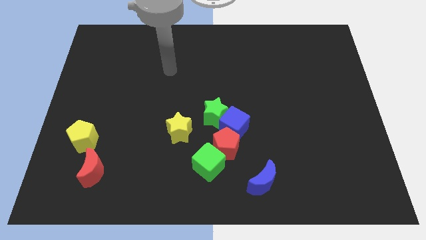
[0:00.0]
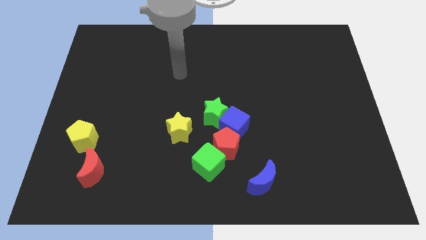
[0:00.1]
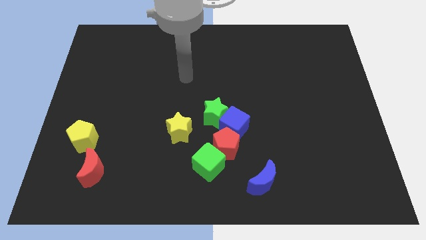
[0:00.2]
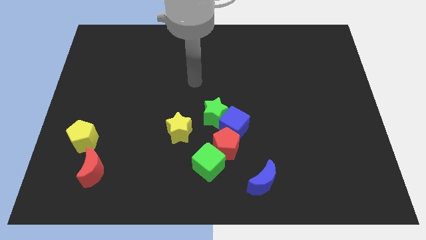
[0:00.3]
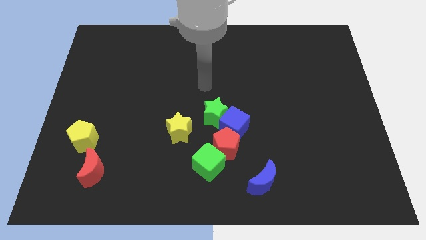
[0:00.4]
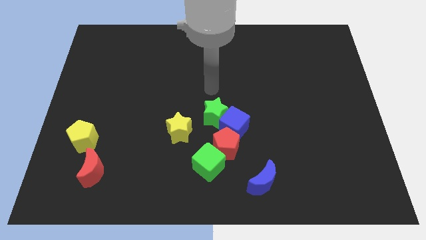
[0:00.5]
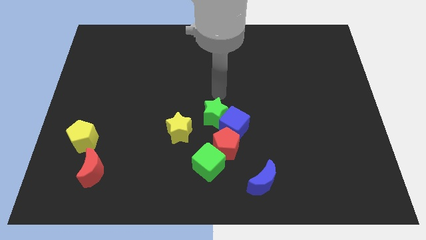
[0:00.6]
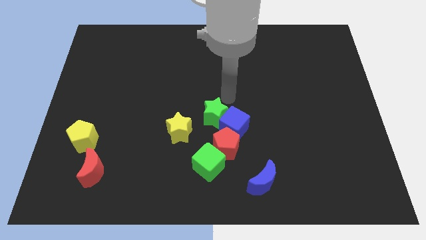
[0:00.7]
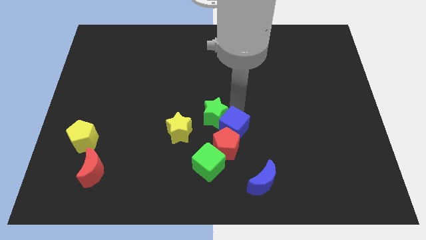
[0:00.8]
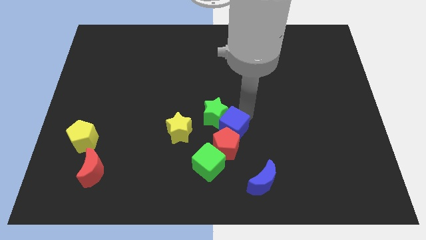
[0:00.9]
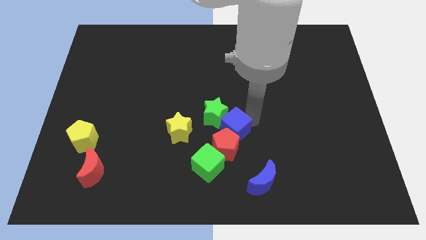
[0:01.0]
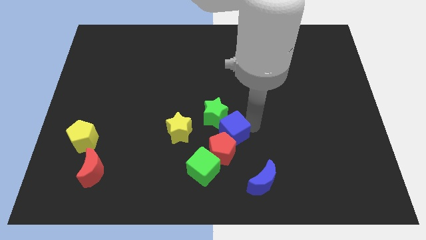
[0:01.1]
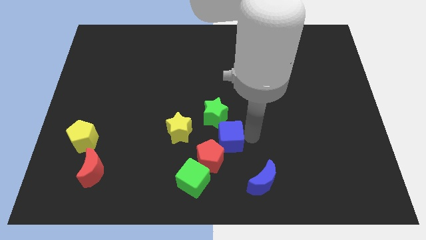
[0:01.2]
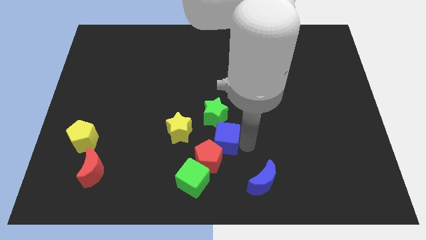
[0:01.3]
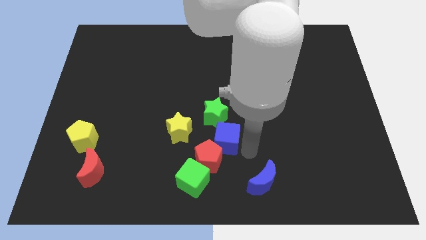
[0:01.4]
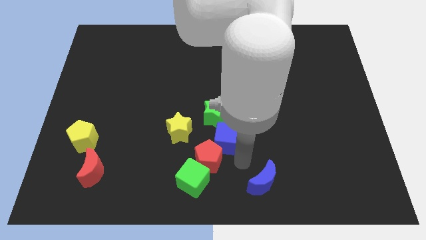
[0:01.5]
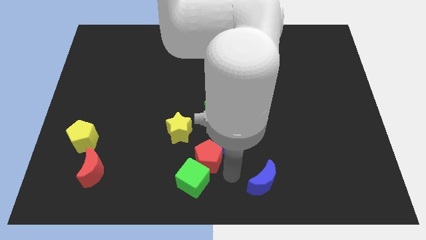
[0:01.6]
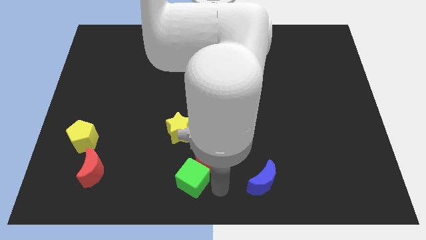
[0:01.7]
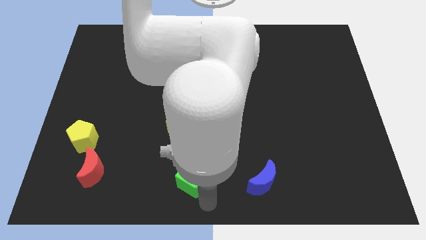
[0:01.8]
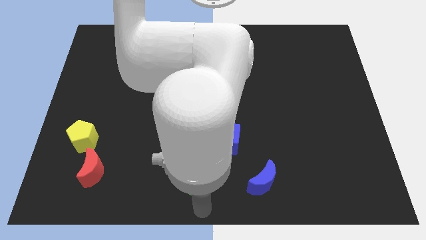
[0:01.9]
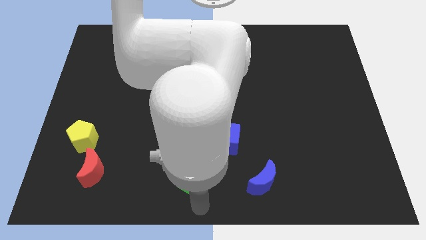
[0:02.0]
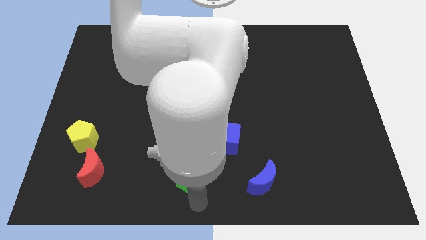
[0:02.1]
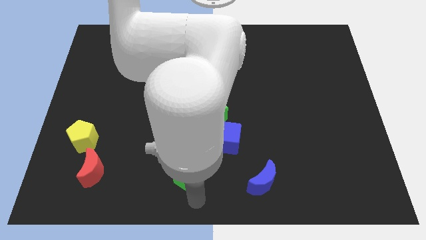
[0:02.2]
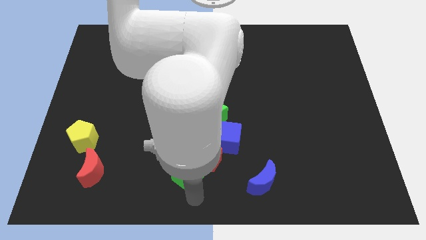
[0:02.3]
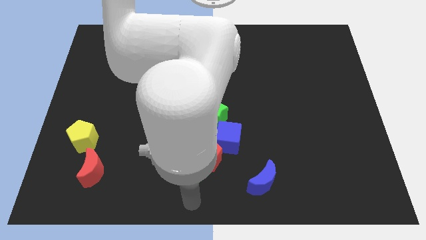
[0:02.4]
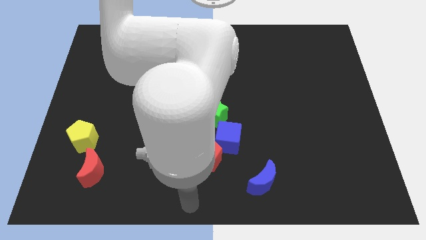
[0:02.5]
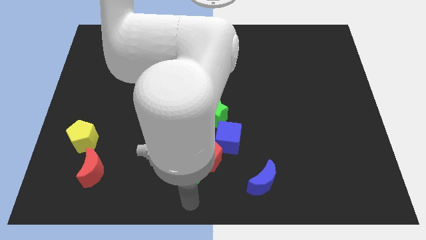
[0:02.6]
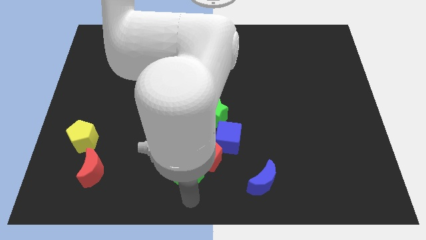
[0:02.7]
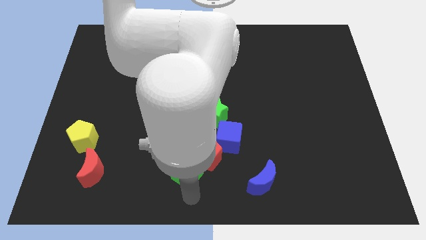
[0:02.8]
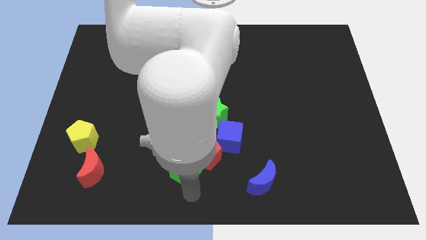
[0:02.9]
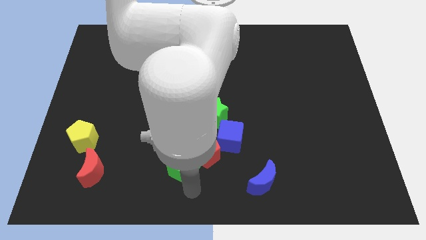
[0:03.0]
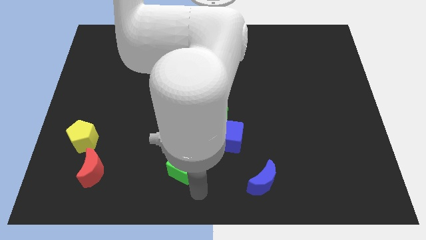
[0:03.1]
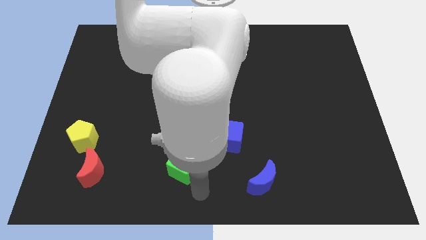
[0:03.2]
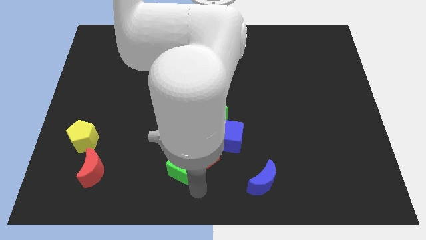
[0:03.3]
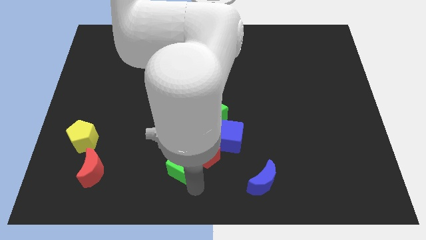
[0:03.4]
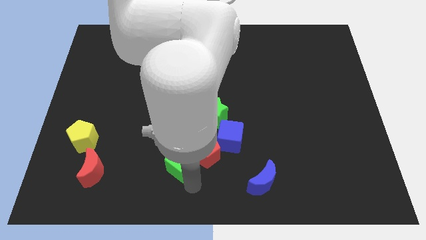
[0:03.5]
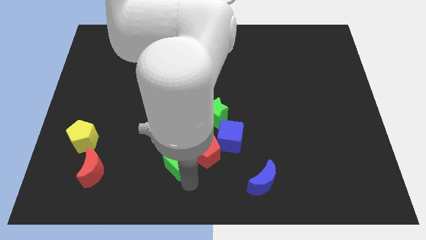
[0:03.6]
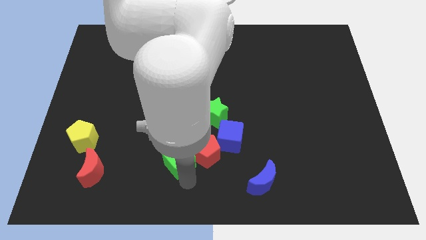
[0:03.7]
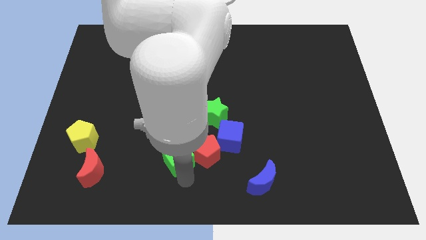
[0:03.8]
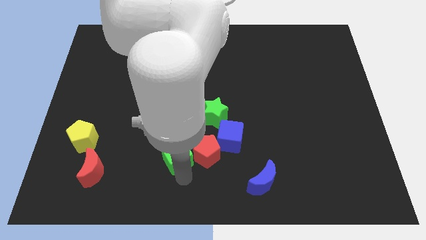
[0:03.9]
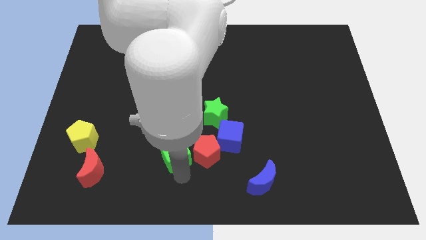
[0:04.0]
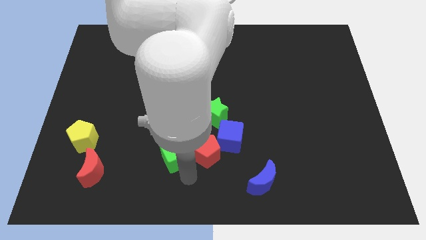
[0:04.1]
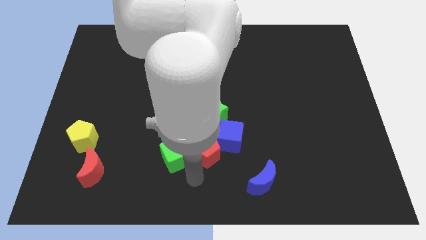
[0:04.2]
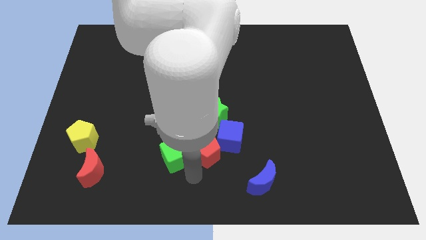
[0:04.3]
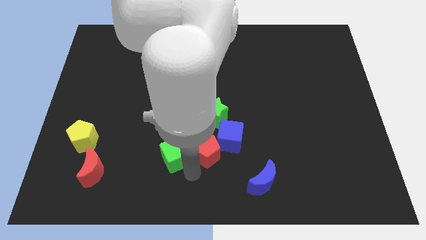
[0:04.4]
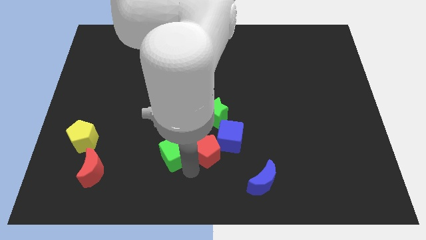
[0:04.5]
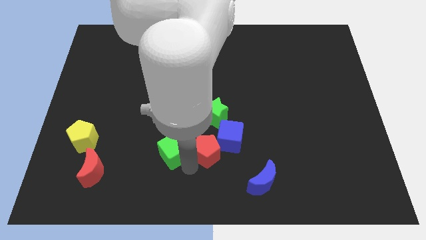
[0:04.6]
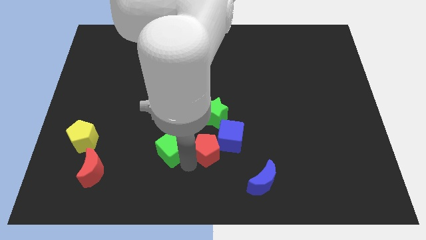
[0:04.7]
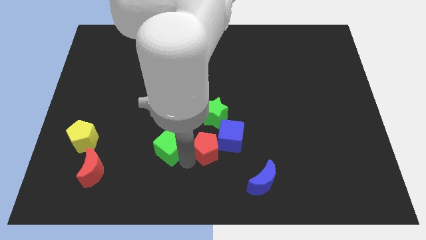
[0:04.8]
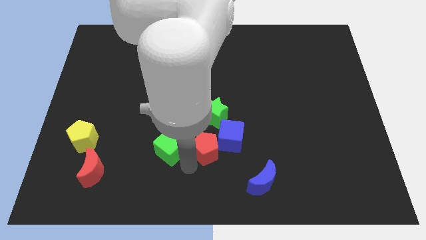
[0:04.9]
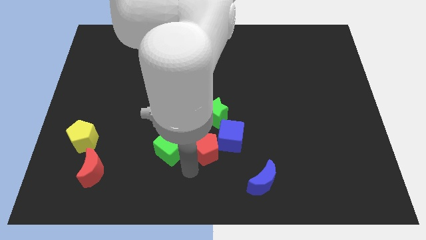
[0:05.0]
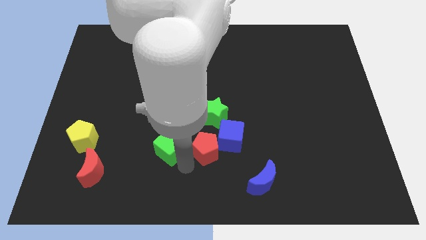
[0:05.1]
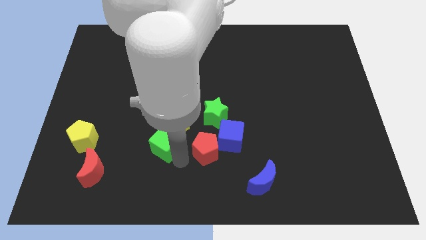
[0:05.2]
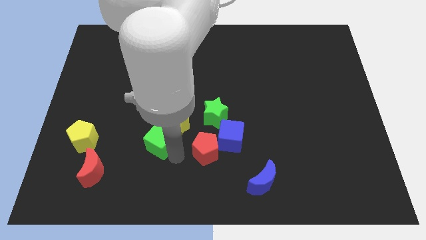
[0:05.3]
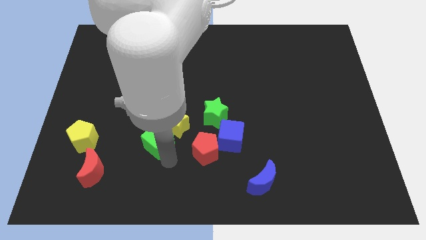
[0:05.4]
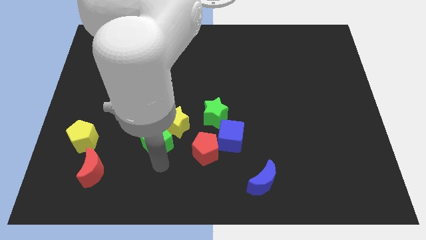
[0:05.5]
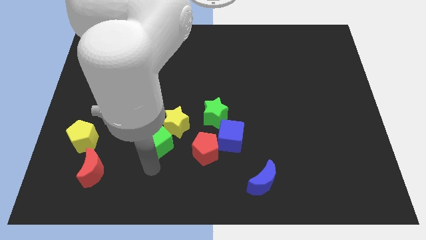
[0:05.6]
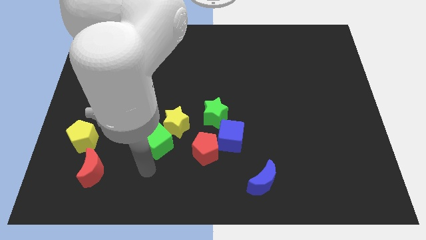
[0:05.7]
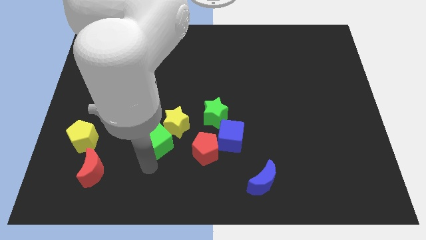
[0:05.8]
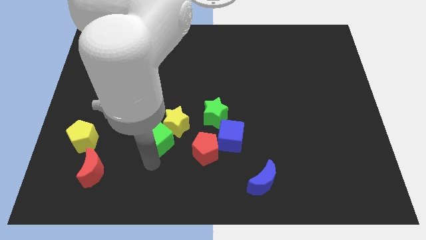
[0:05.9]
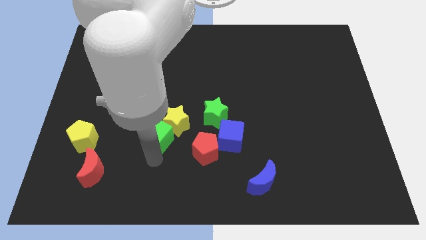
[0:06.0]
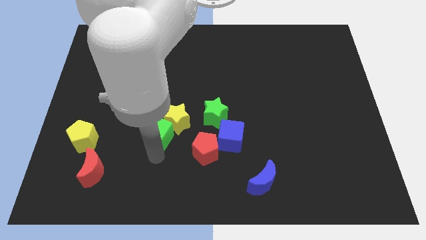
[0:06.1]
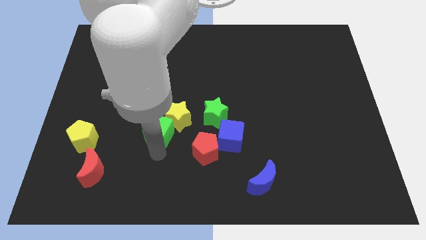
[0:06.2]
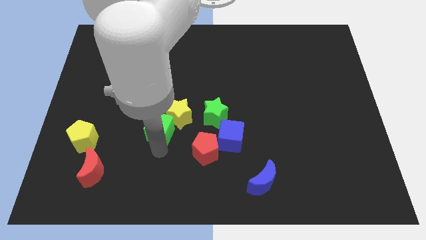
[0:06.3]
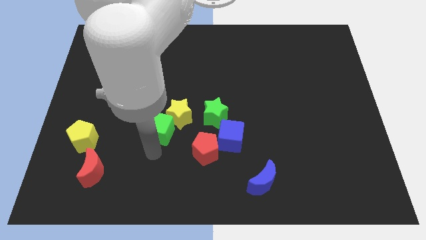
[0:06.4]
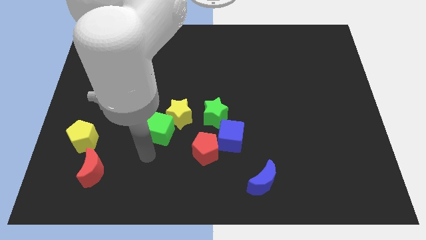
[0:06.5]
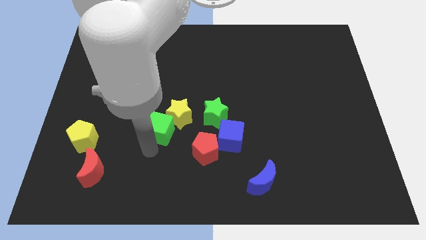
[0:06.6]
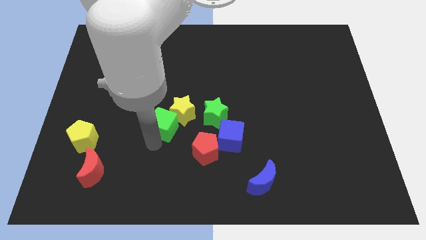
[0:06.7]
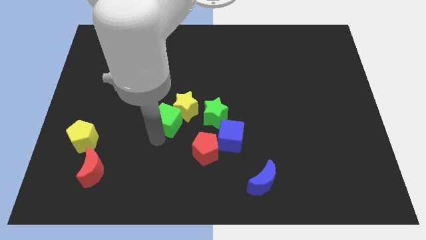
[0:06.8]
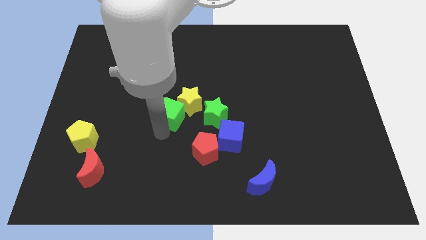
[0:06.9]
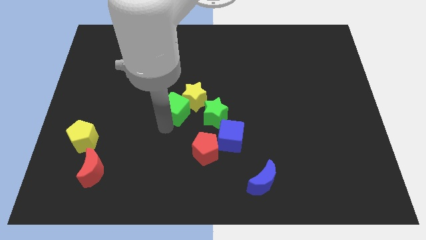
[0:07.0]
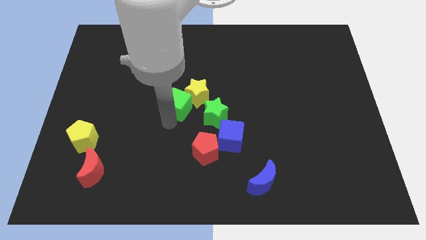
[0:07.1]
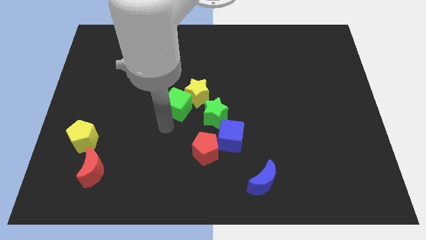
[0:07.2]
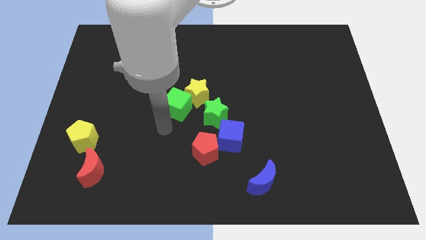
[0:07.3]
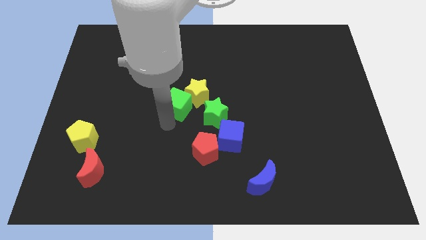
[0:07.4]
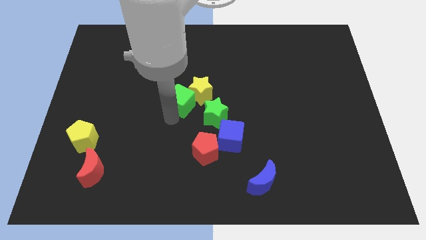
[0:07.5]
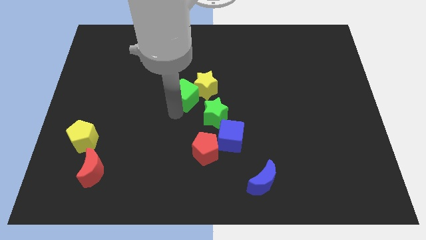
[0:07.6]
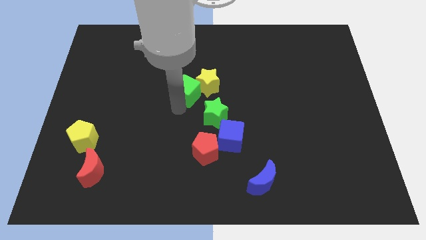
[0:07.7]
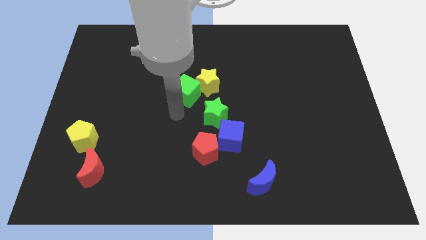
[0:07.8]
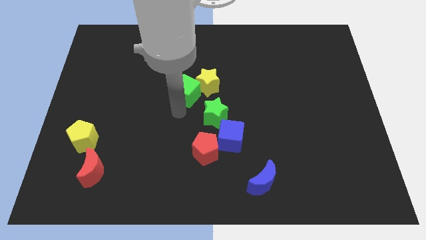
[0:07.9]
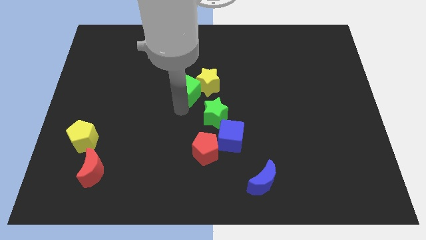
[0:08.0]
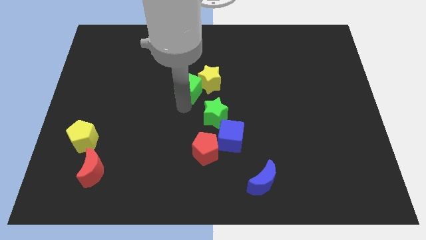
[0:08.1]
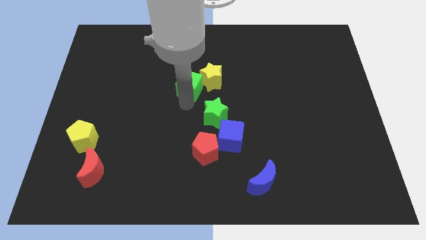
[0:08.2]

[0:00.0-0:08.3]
push the green cube up
